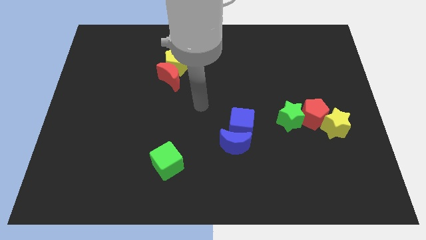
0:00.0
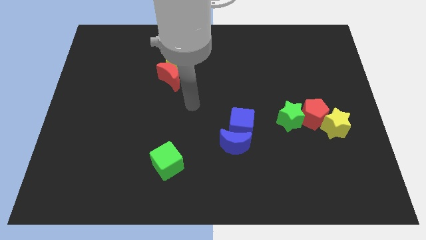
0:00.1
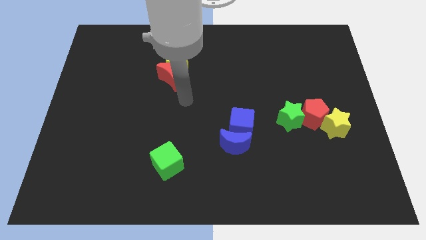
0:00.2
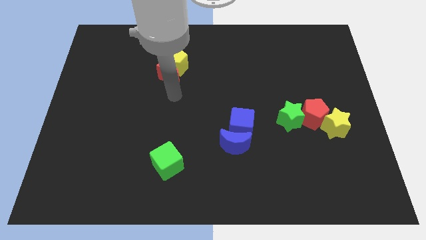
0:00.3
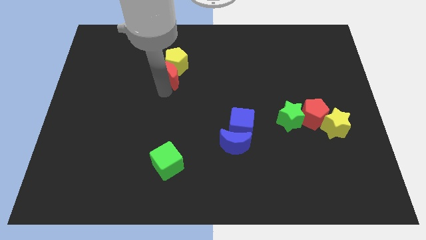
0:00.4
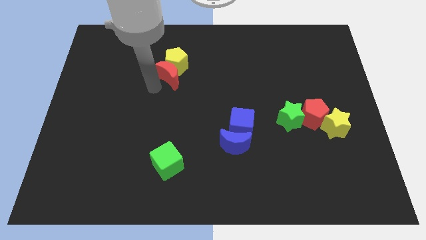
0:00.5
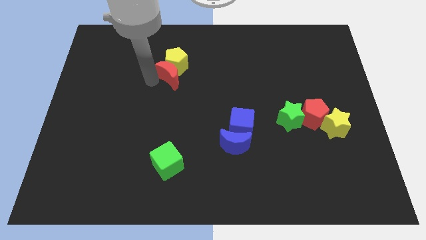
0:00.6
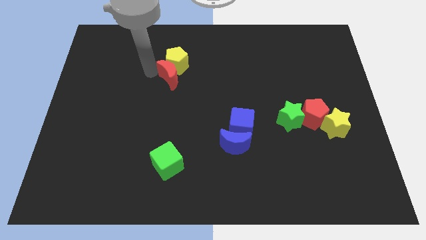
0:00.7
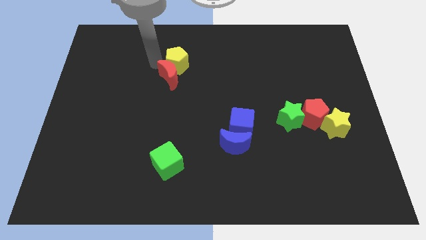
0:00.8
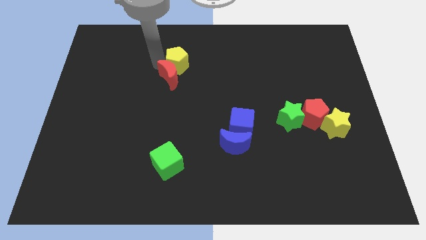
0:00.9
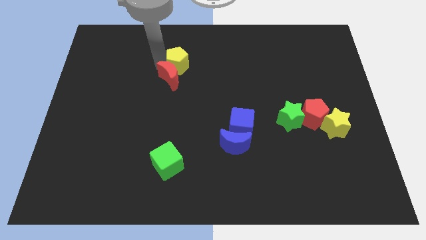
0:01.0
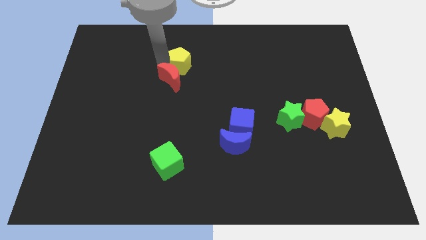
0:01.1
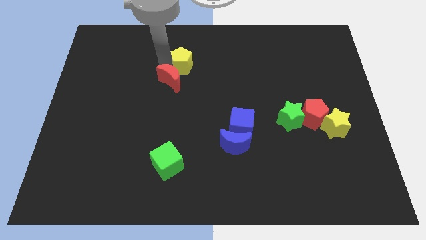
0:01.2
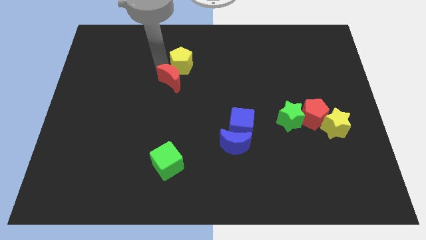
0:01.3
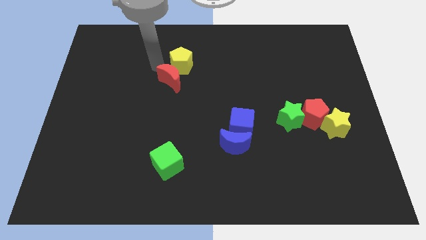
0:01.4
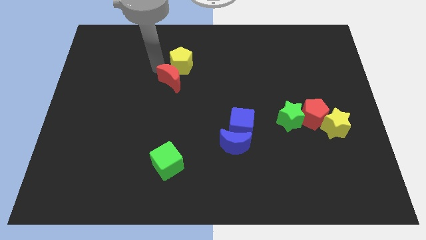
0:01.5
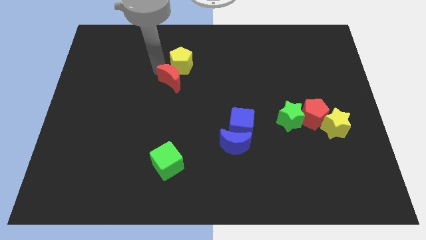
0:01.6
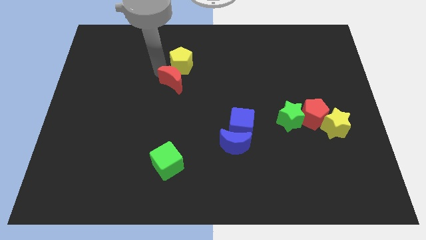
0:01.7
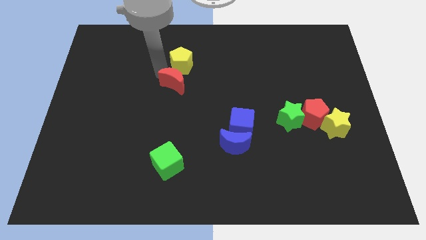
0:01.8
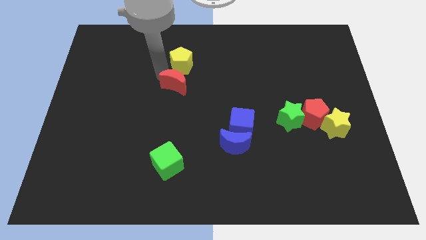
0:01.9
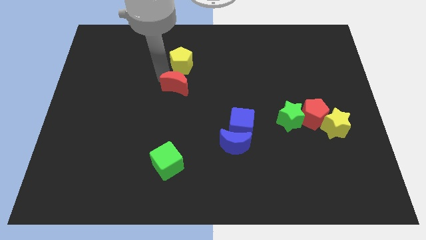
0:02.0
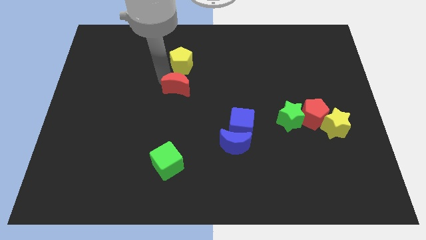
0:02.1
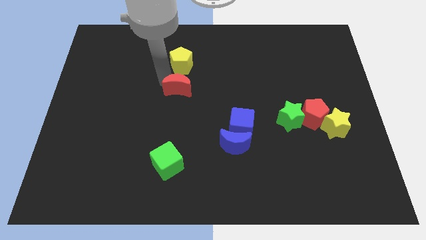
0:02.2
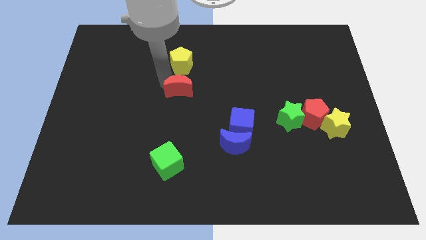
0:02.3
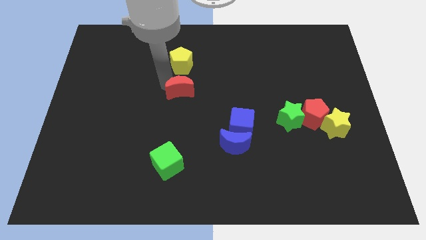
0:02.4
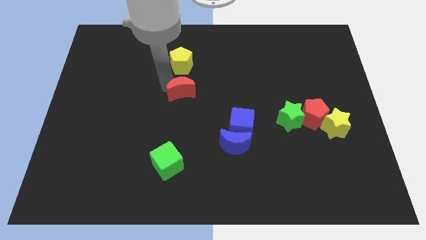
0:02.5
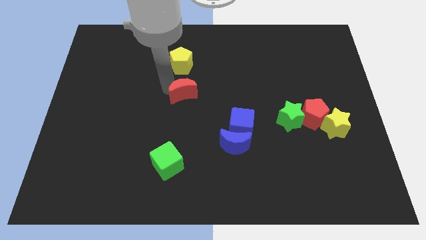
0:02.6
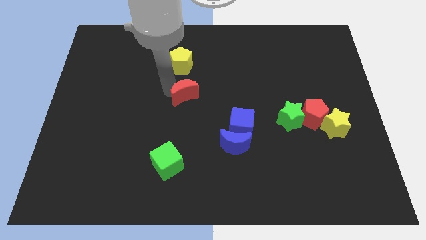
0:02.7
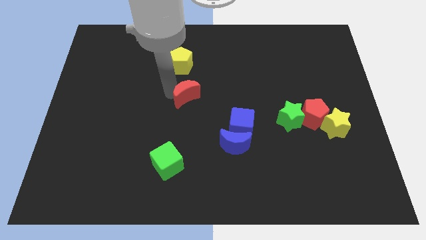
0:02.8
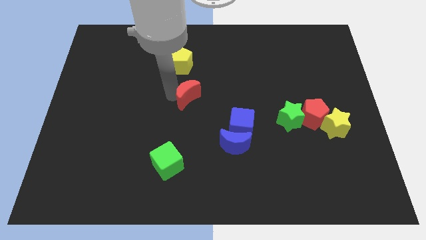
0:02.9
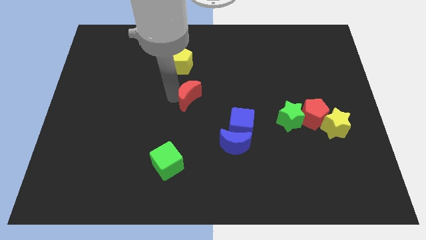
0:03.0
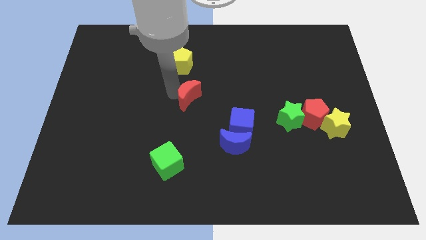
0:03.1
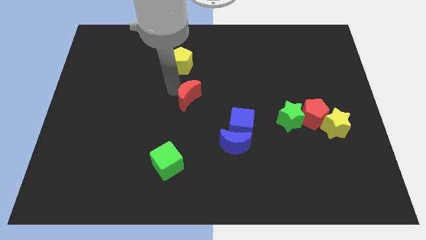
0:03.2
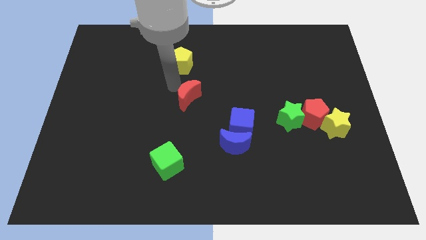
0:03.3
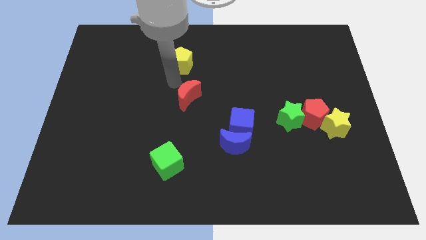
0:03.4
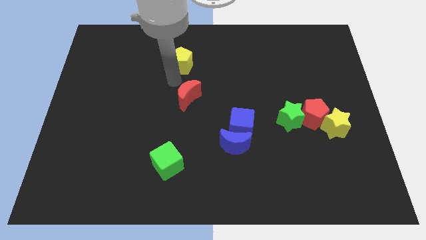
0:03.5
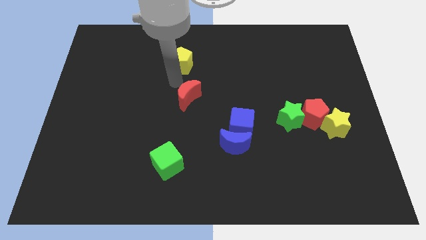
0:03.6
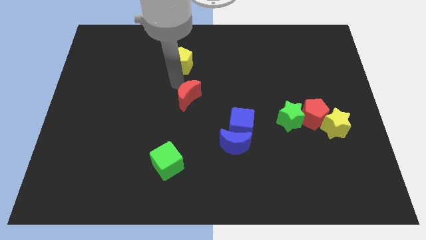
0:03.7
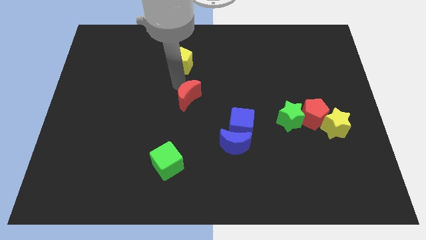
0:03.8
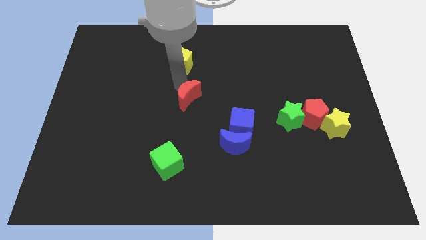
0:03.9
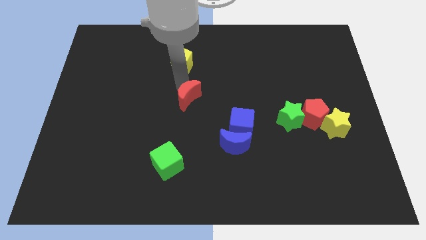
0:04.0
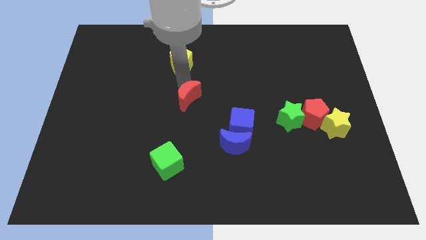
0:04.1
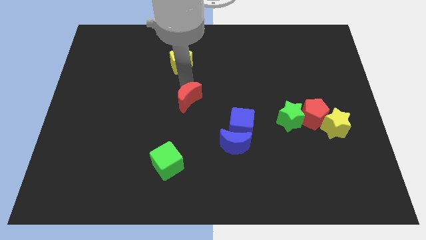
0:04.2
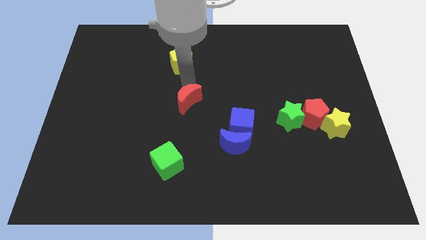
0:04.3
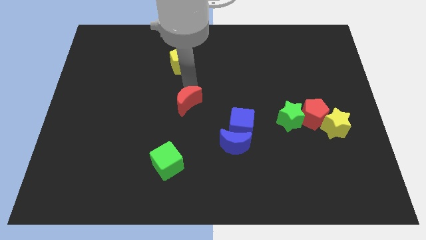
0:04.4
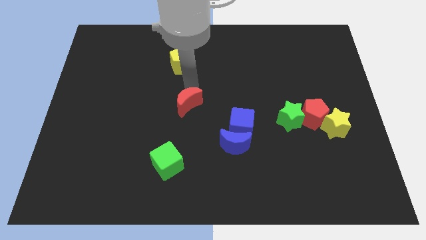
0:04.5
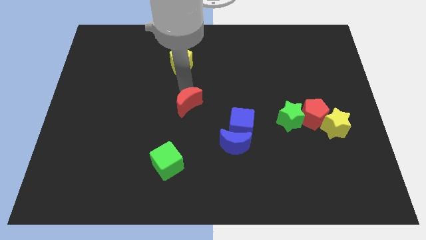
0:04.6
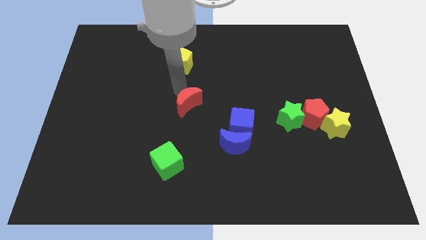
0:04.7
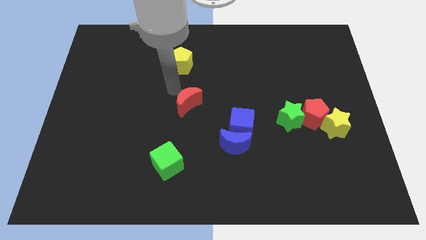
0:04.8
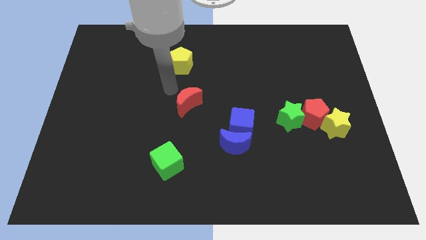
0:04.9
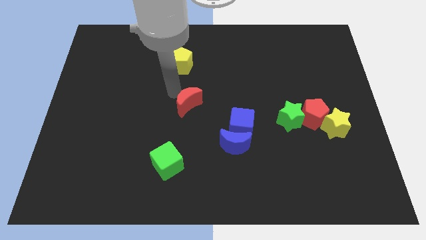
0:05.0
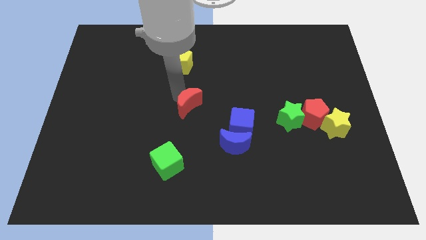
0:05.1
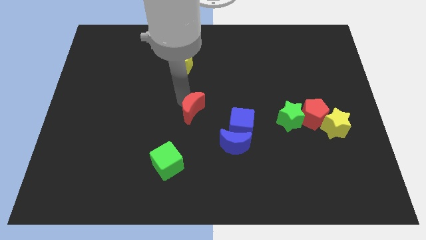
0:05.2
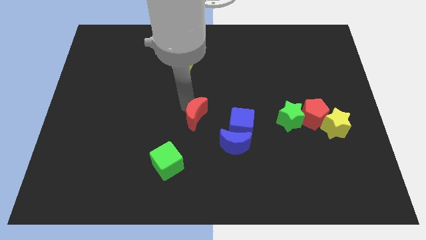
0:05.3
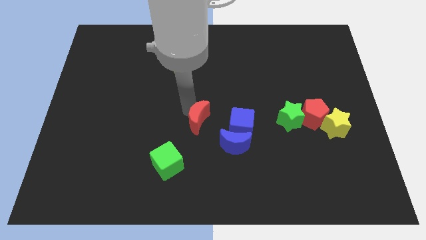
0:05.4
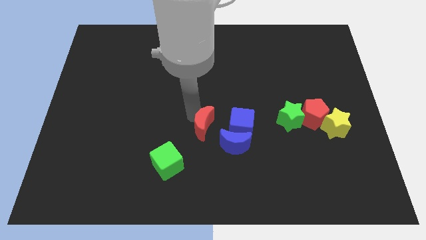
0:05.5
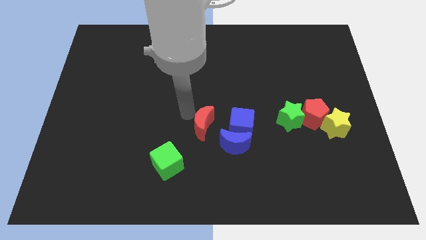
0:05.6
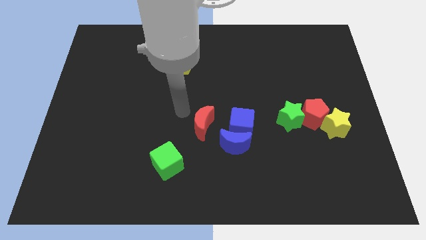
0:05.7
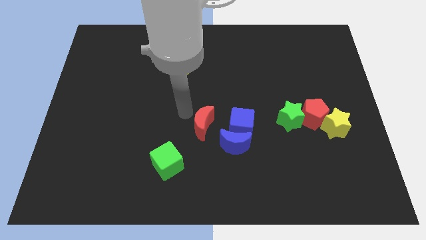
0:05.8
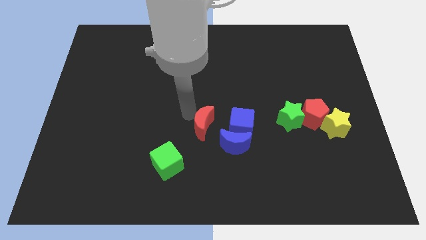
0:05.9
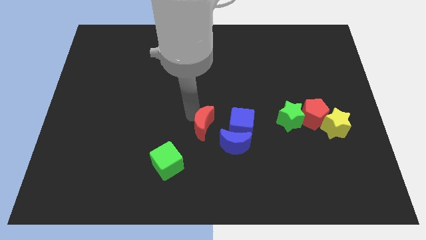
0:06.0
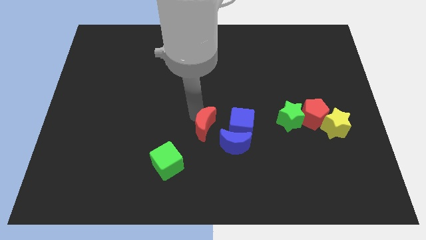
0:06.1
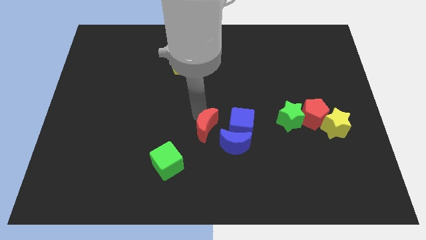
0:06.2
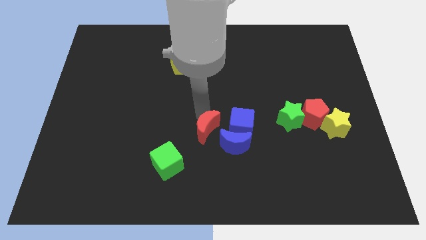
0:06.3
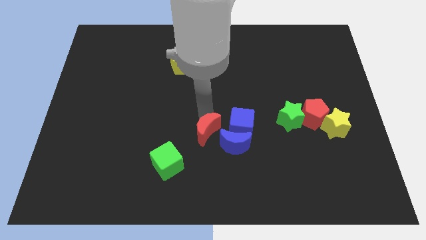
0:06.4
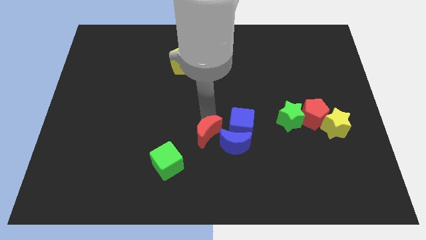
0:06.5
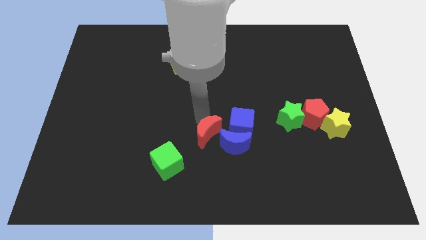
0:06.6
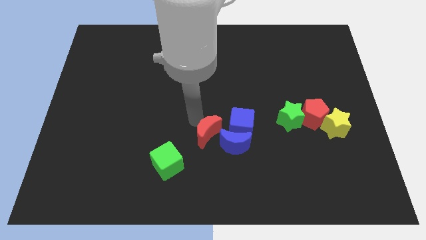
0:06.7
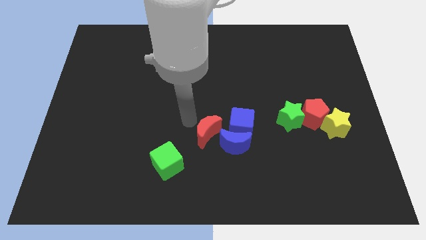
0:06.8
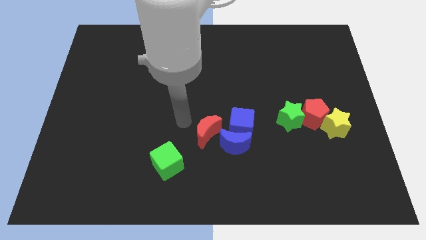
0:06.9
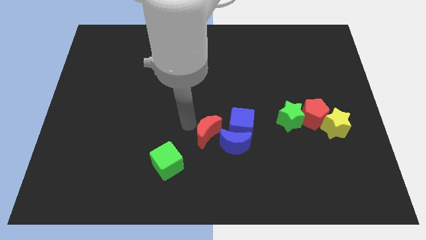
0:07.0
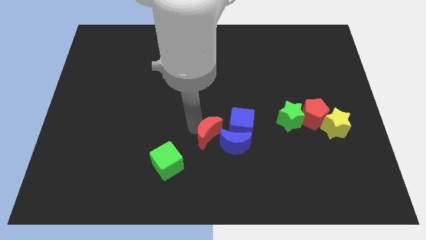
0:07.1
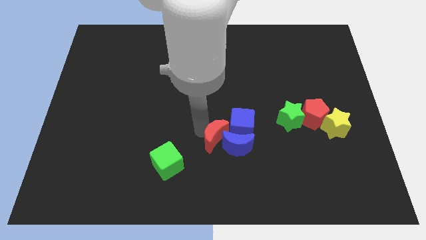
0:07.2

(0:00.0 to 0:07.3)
slide the red moon to the blue moon
